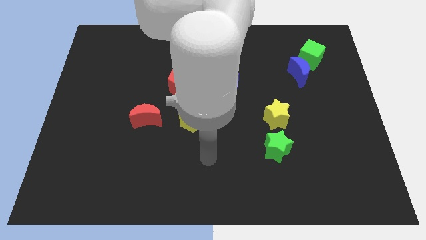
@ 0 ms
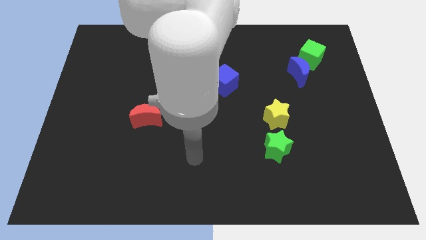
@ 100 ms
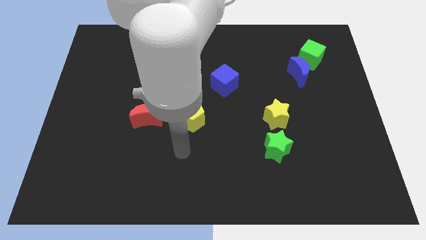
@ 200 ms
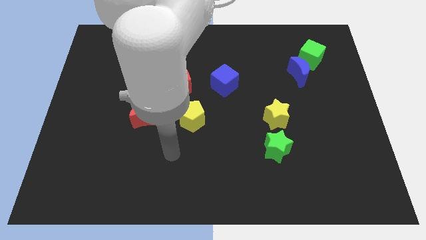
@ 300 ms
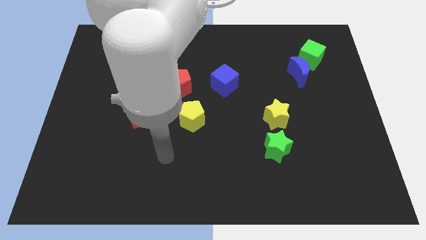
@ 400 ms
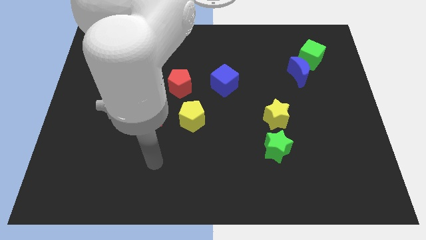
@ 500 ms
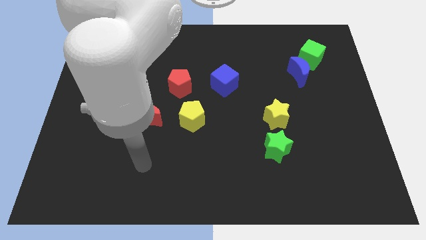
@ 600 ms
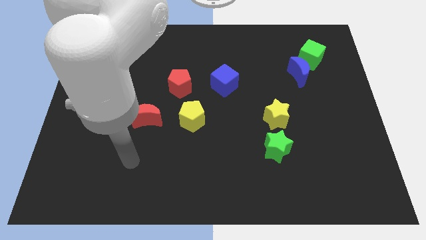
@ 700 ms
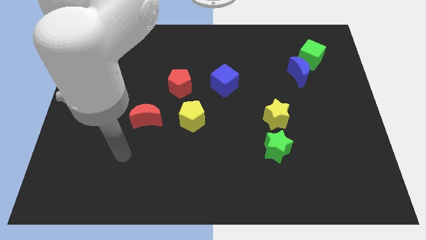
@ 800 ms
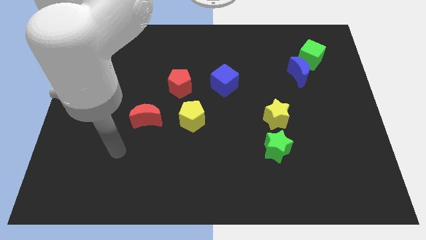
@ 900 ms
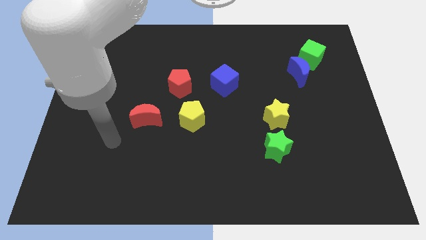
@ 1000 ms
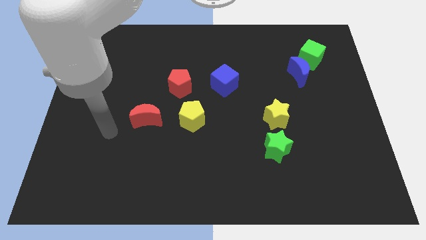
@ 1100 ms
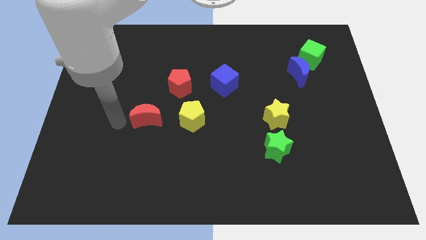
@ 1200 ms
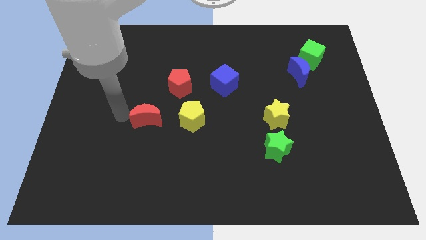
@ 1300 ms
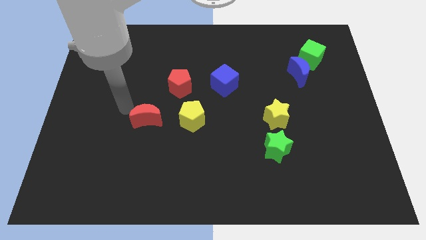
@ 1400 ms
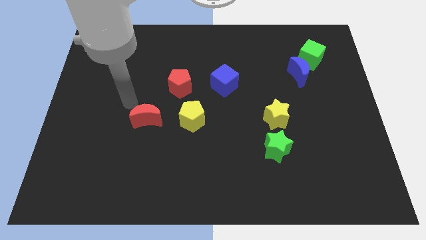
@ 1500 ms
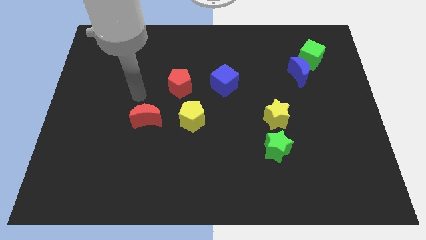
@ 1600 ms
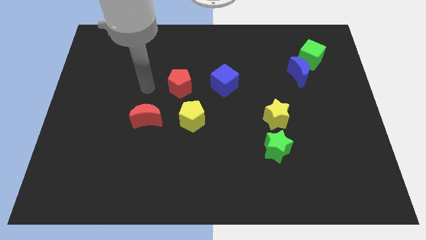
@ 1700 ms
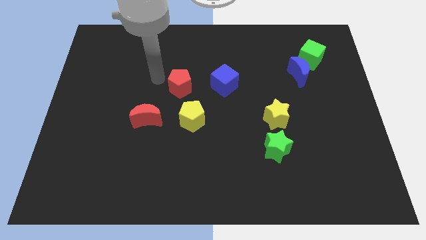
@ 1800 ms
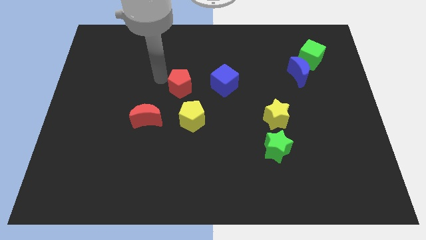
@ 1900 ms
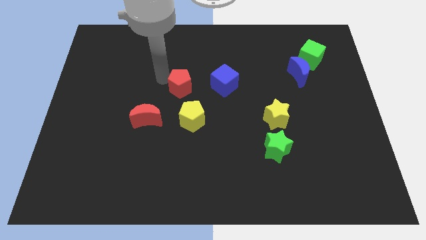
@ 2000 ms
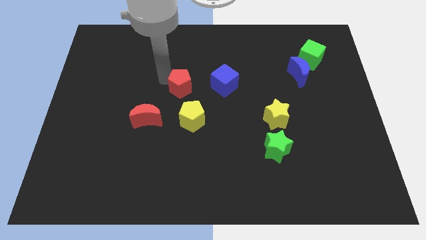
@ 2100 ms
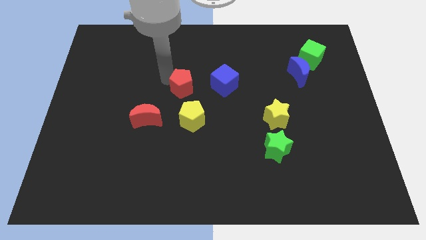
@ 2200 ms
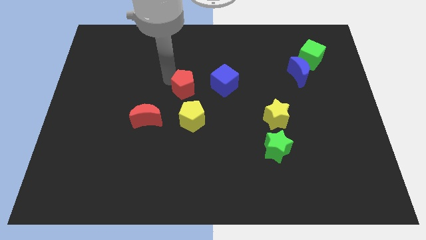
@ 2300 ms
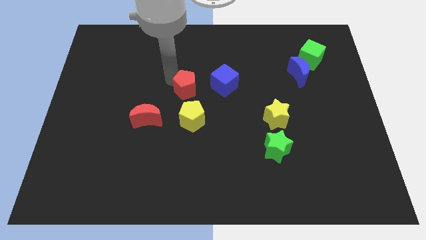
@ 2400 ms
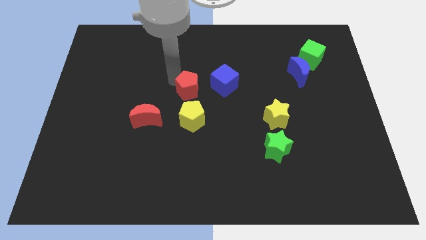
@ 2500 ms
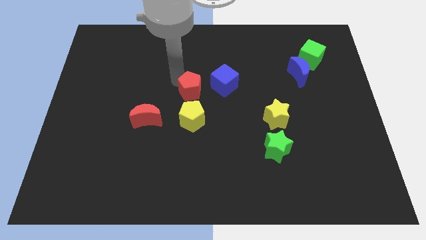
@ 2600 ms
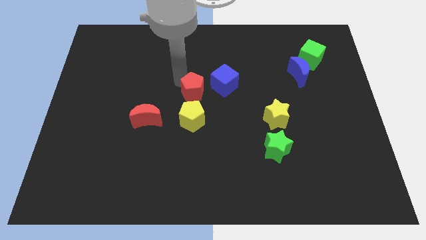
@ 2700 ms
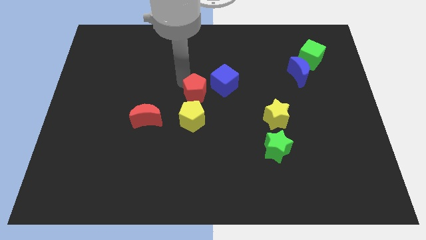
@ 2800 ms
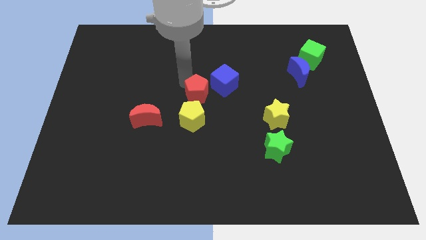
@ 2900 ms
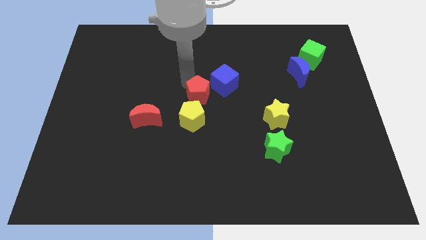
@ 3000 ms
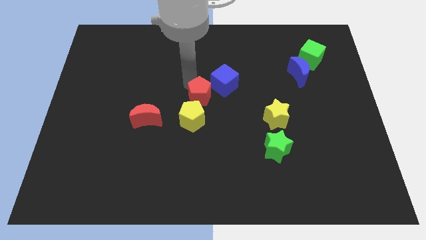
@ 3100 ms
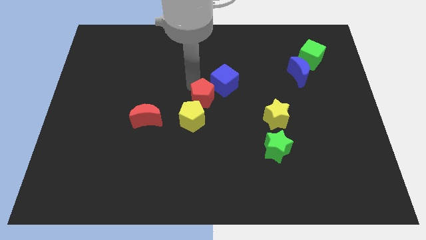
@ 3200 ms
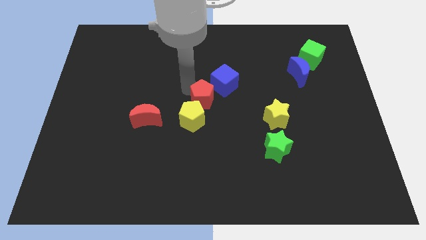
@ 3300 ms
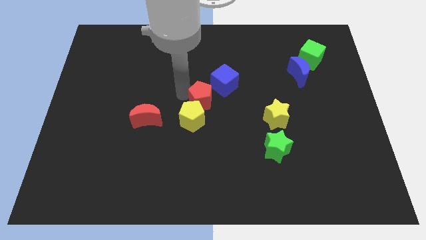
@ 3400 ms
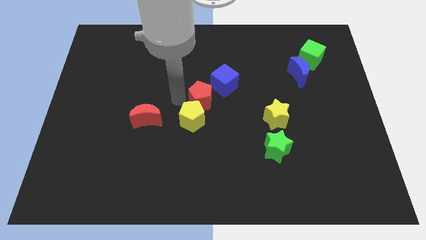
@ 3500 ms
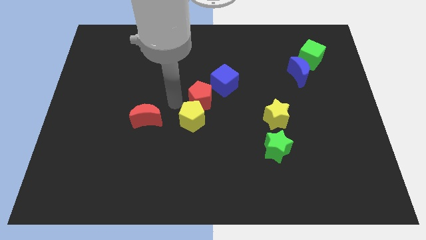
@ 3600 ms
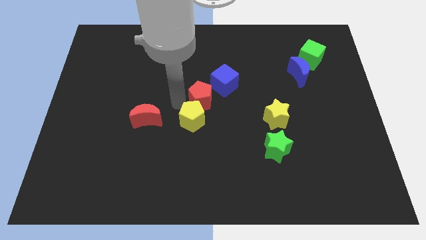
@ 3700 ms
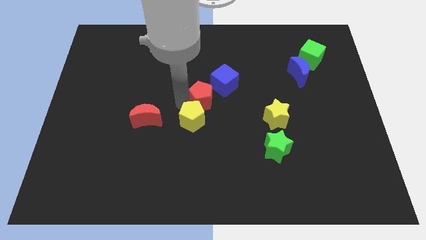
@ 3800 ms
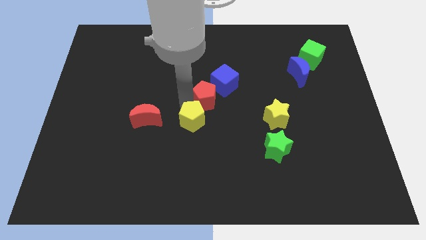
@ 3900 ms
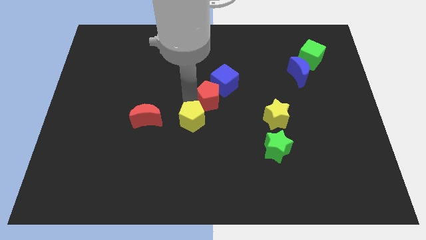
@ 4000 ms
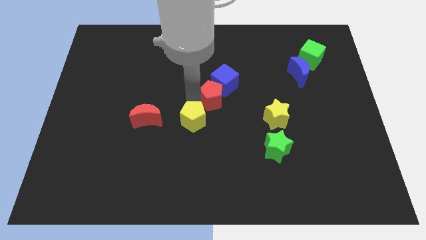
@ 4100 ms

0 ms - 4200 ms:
push the red pentagon a little bit right

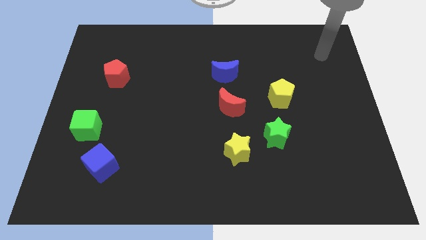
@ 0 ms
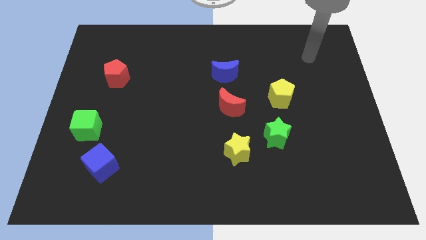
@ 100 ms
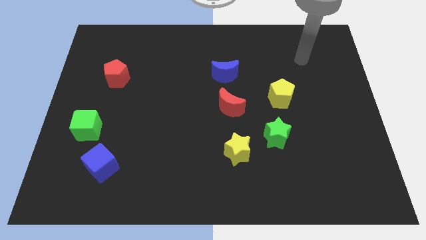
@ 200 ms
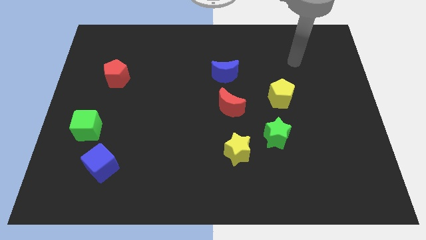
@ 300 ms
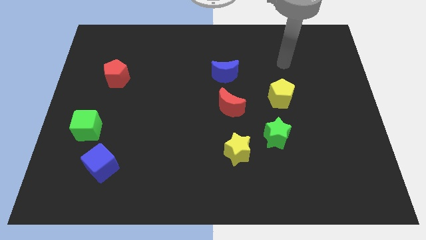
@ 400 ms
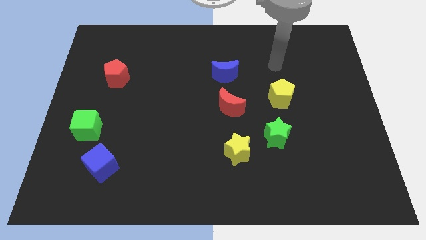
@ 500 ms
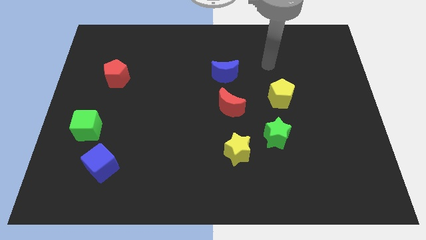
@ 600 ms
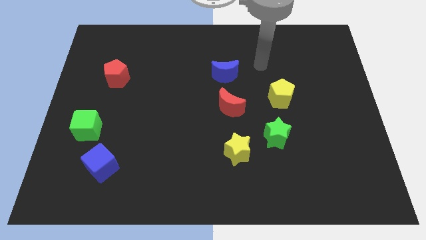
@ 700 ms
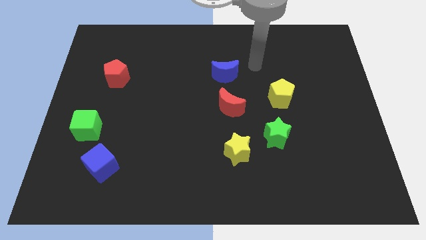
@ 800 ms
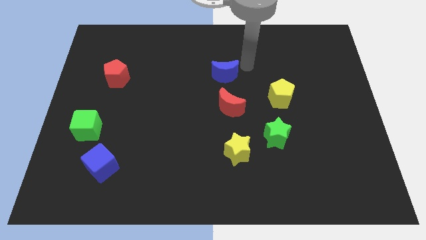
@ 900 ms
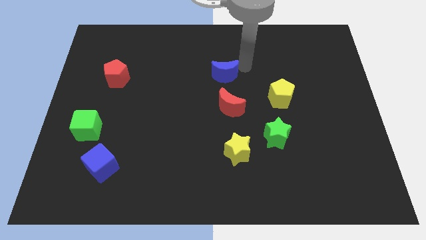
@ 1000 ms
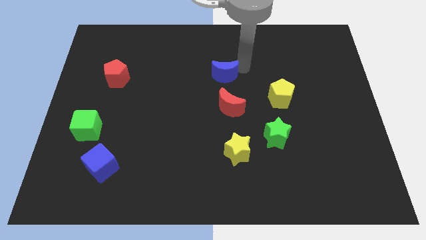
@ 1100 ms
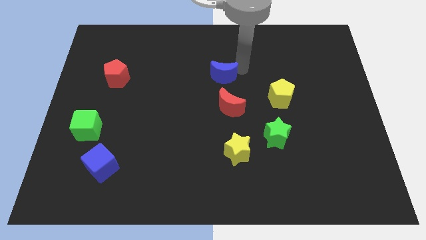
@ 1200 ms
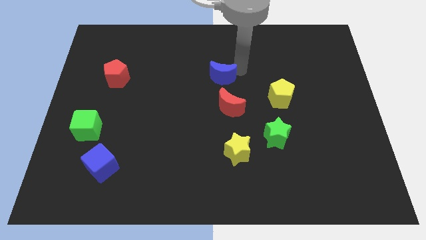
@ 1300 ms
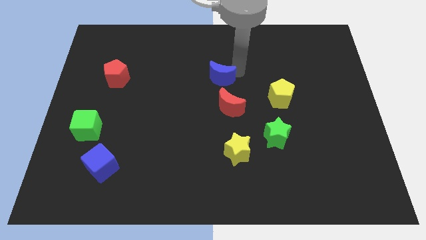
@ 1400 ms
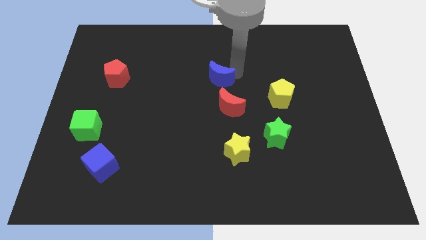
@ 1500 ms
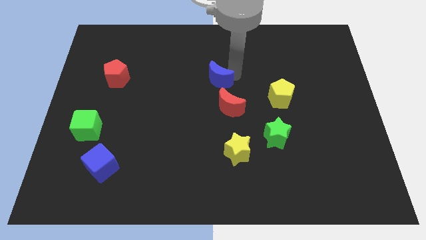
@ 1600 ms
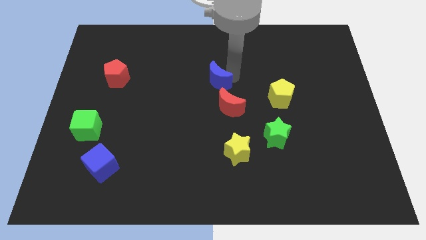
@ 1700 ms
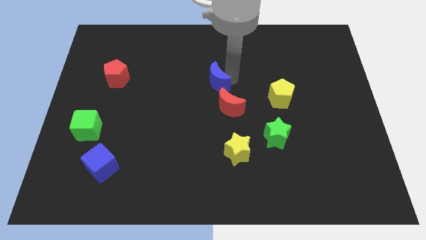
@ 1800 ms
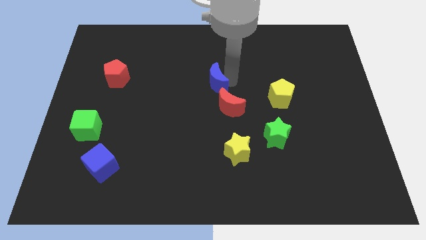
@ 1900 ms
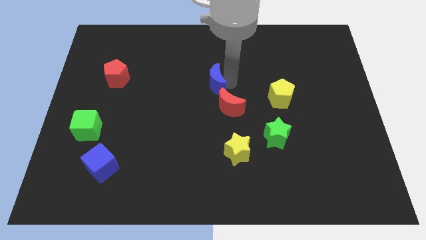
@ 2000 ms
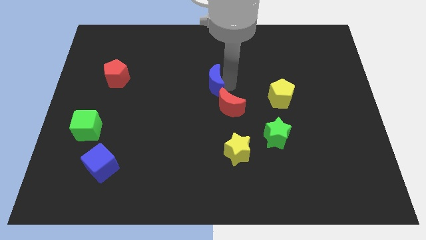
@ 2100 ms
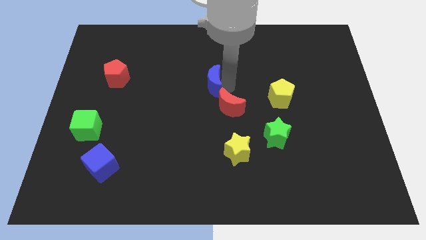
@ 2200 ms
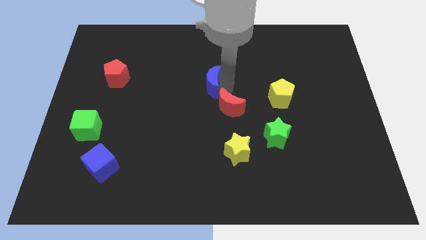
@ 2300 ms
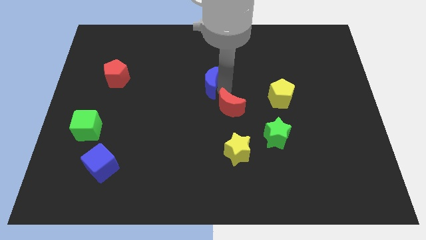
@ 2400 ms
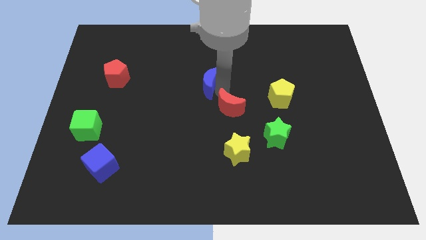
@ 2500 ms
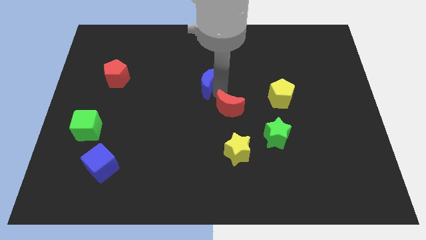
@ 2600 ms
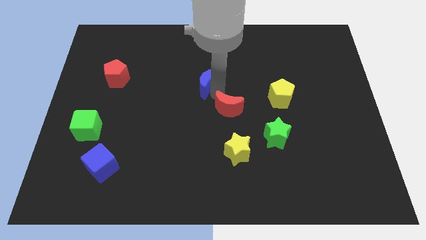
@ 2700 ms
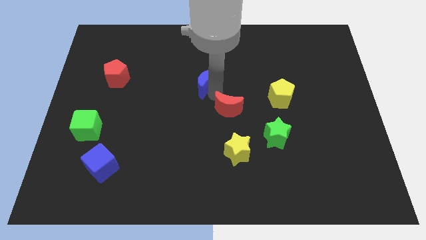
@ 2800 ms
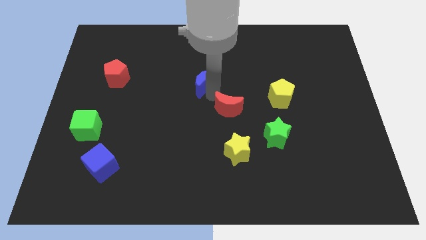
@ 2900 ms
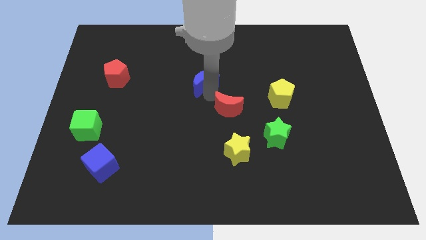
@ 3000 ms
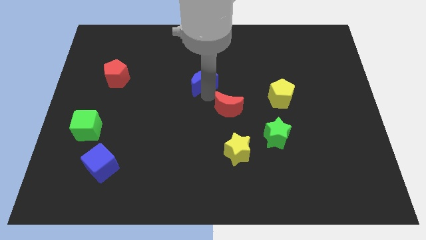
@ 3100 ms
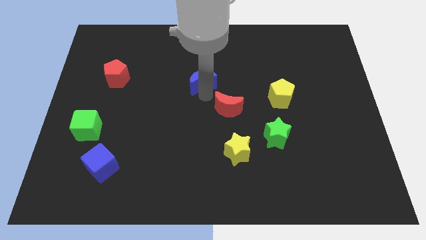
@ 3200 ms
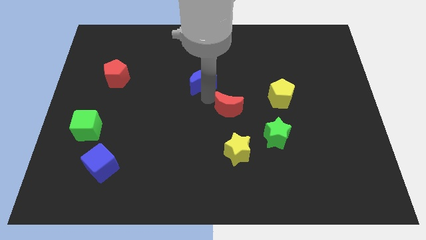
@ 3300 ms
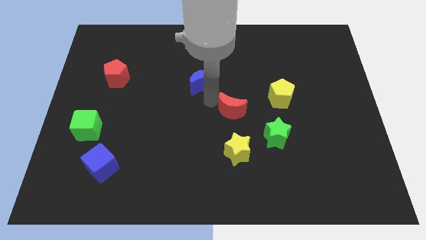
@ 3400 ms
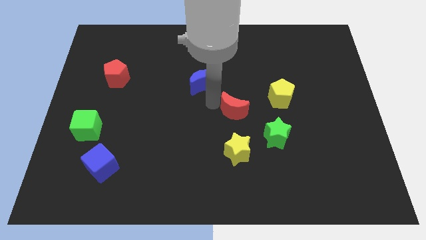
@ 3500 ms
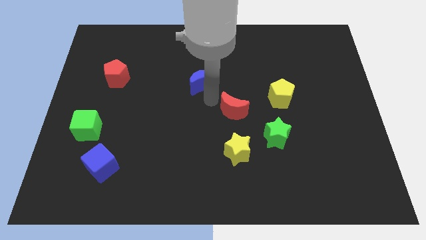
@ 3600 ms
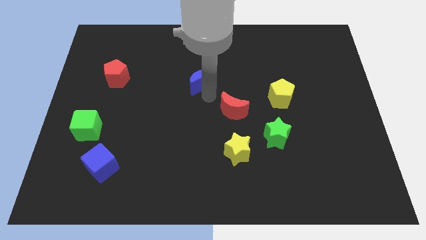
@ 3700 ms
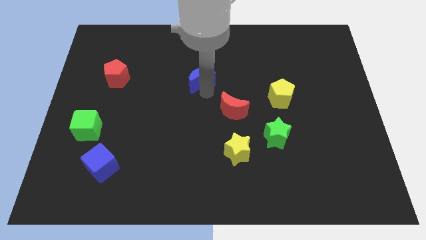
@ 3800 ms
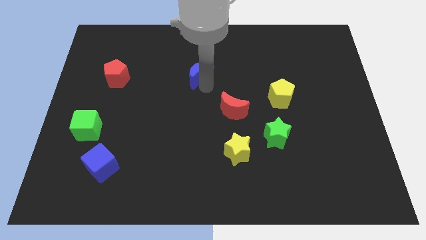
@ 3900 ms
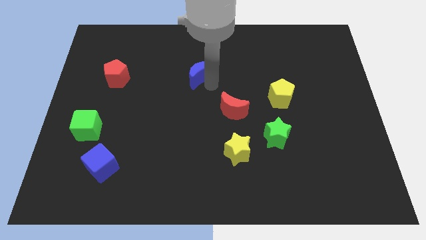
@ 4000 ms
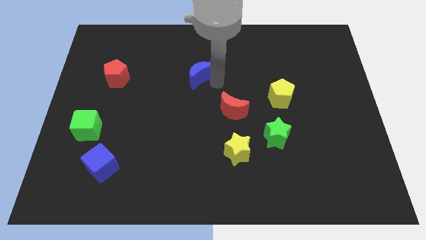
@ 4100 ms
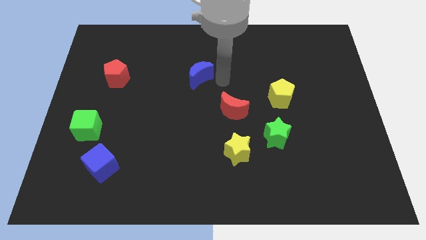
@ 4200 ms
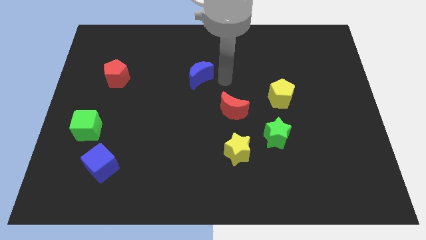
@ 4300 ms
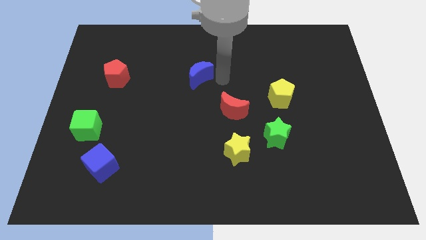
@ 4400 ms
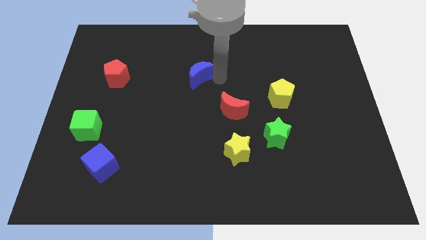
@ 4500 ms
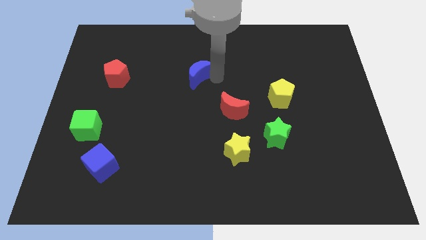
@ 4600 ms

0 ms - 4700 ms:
move the blue moon somewhat to the left
